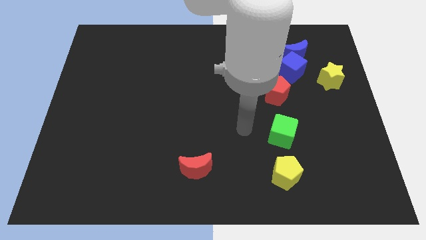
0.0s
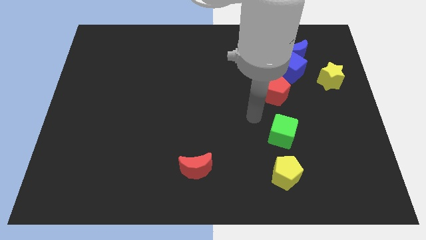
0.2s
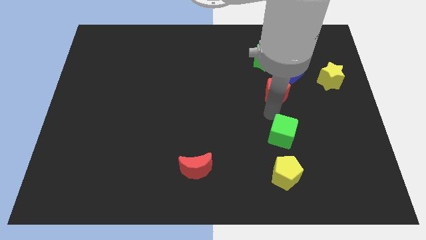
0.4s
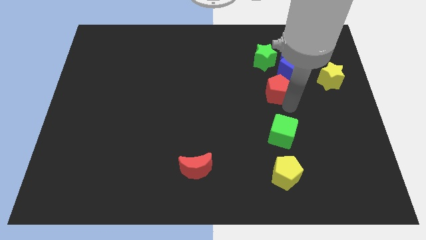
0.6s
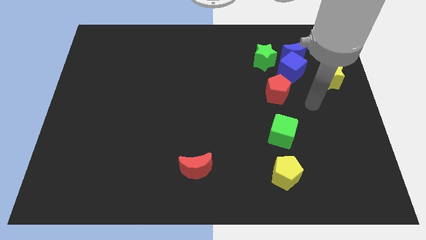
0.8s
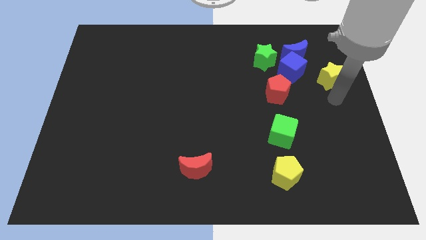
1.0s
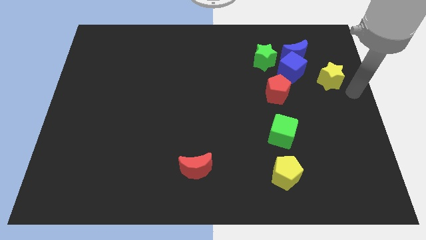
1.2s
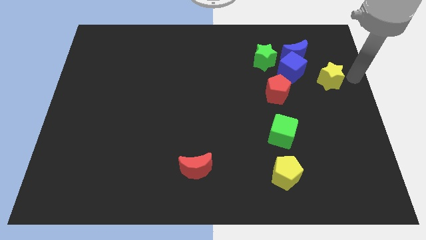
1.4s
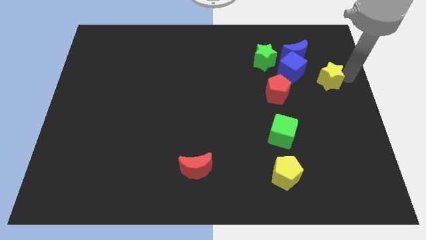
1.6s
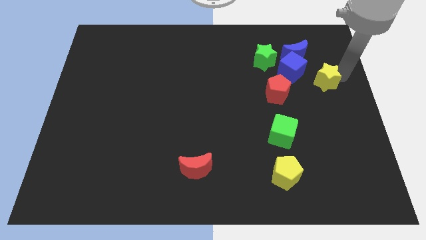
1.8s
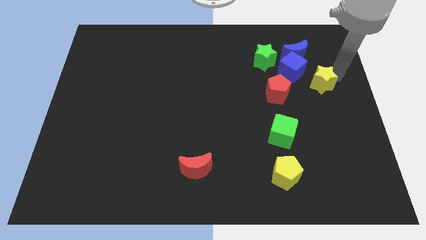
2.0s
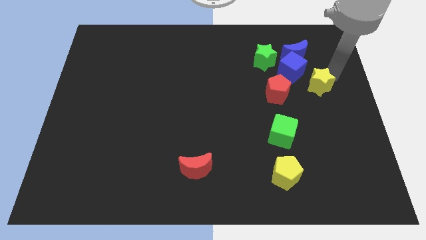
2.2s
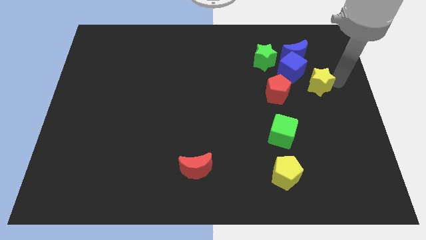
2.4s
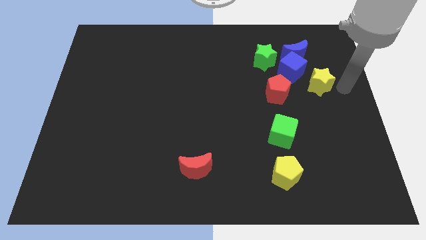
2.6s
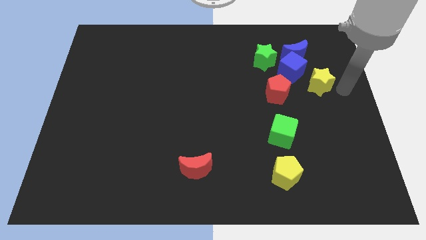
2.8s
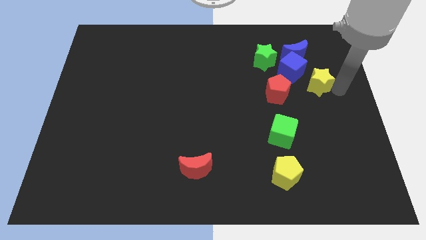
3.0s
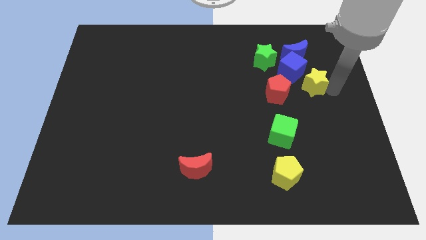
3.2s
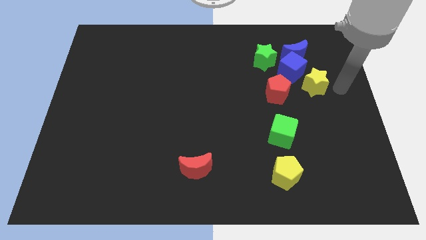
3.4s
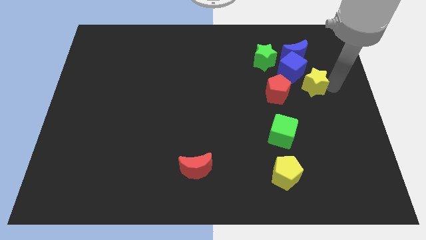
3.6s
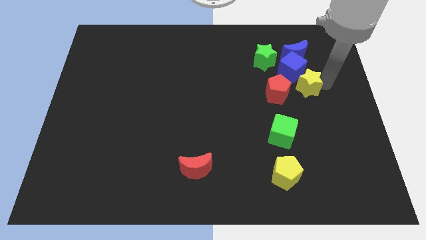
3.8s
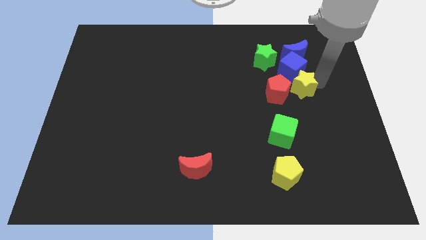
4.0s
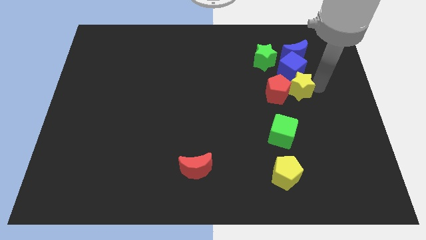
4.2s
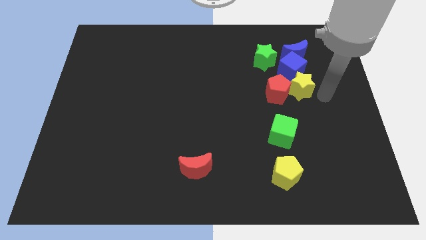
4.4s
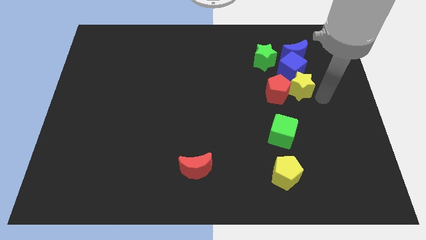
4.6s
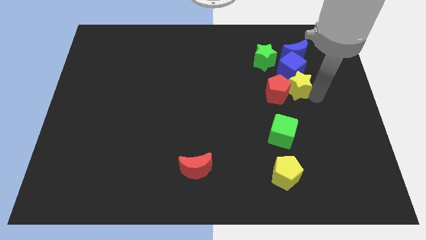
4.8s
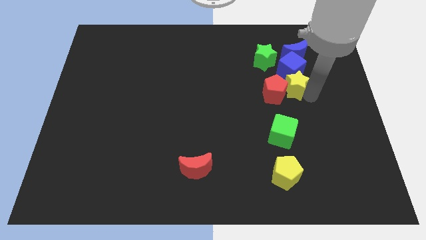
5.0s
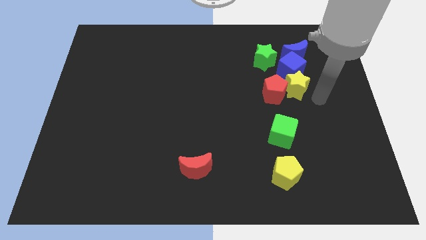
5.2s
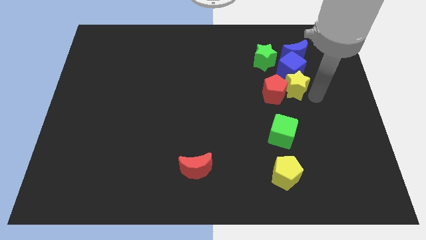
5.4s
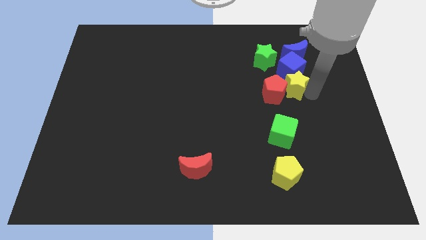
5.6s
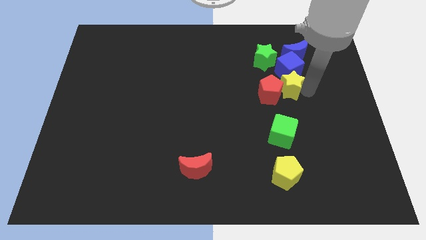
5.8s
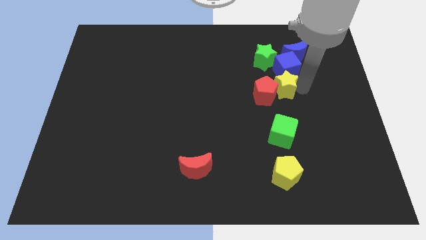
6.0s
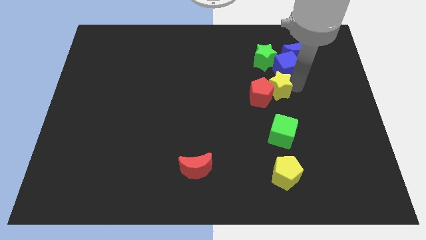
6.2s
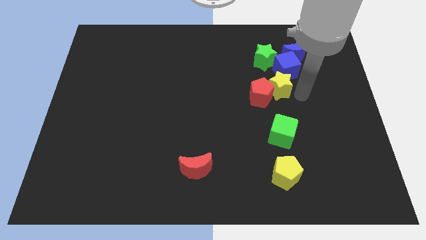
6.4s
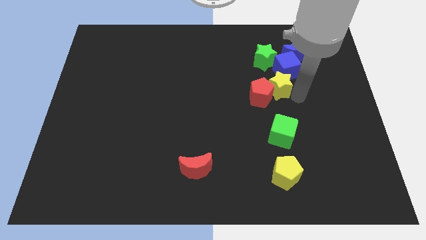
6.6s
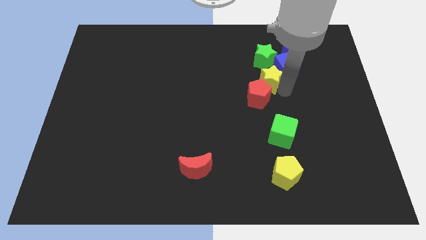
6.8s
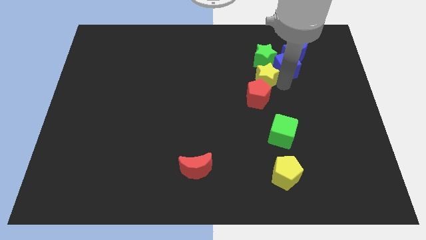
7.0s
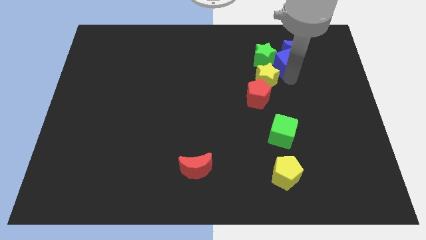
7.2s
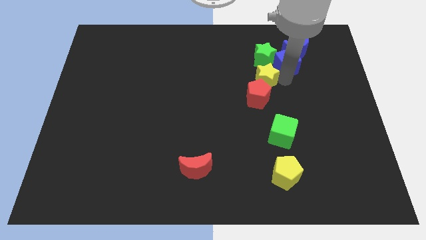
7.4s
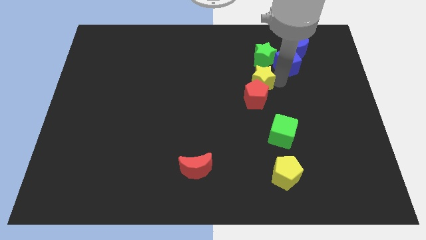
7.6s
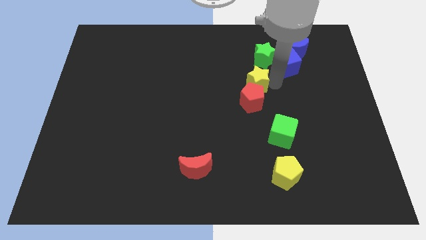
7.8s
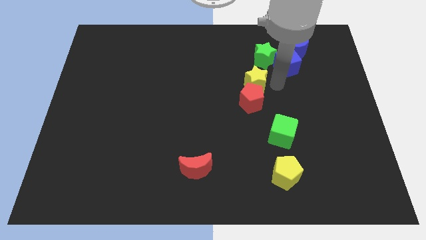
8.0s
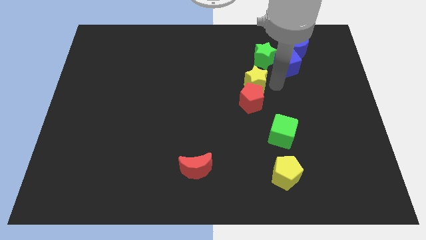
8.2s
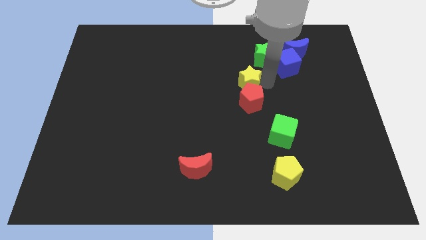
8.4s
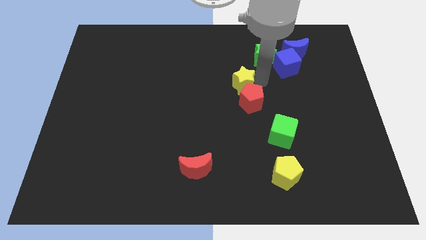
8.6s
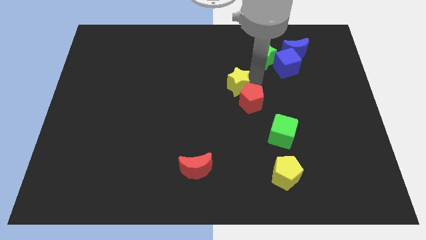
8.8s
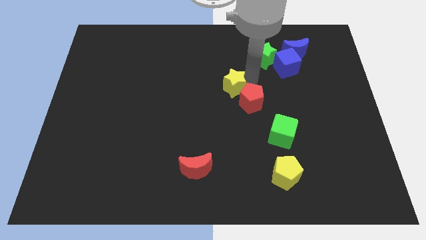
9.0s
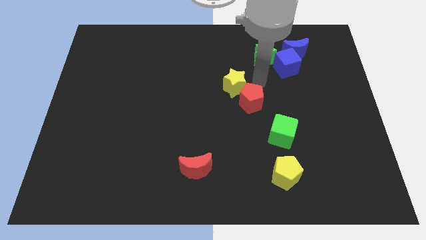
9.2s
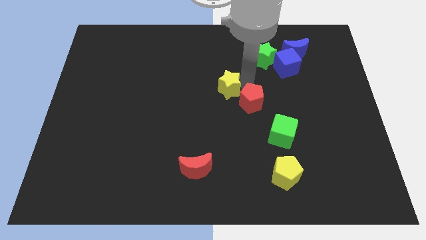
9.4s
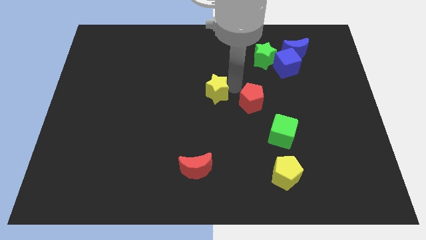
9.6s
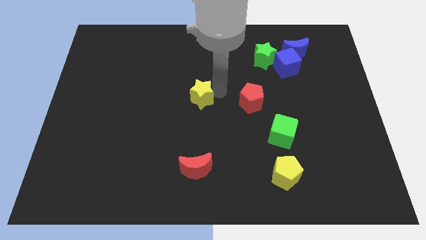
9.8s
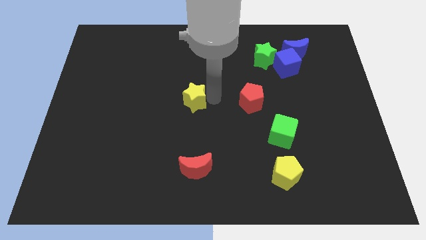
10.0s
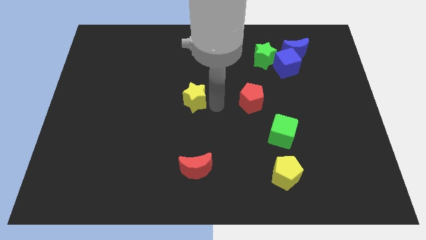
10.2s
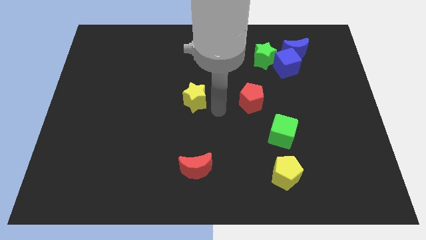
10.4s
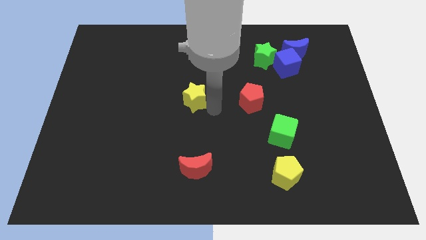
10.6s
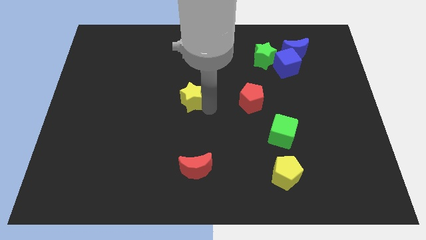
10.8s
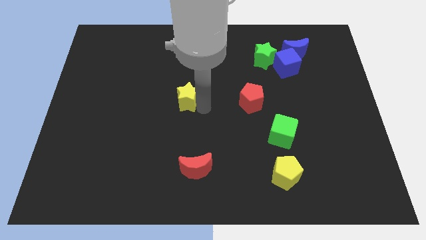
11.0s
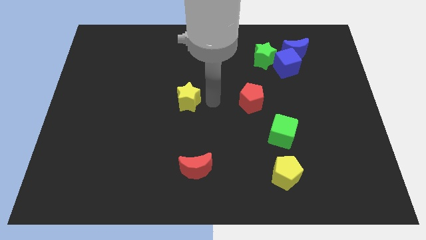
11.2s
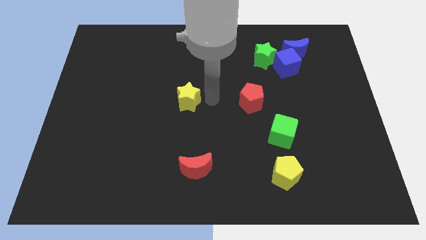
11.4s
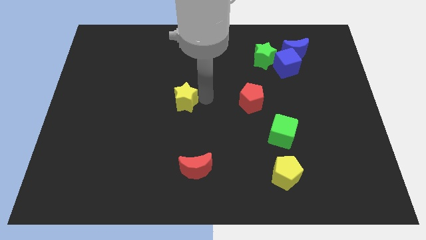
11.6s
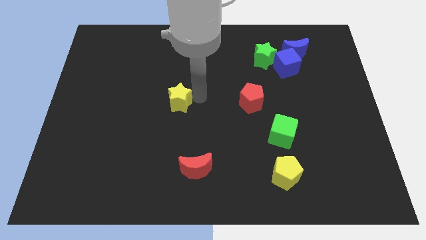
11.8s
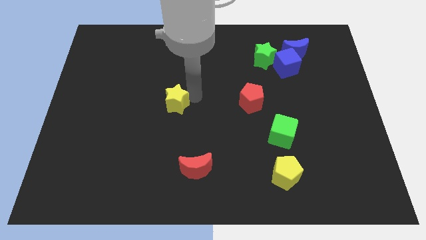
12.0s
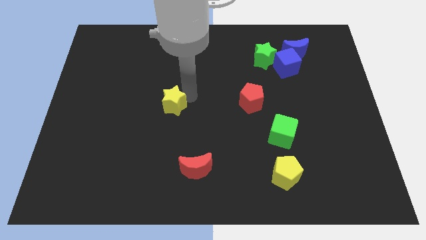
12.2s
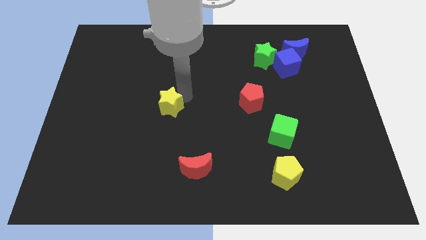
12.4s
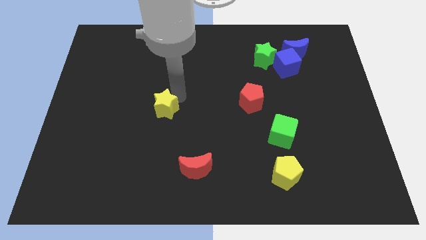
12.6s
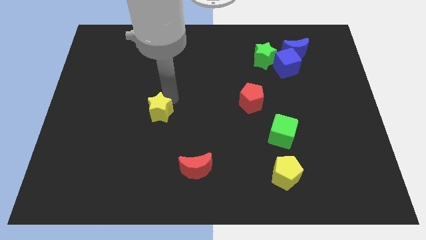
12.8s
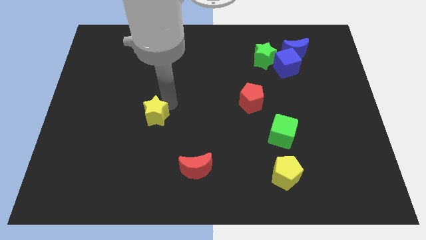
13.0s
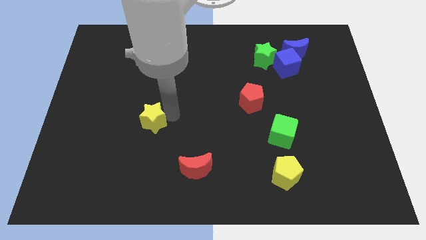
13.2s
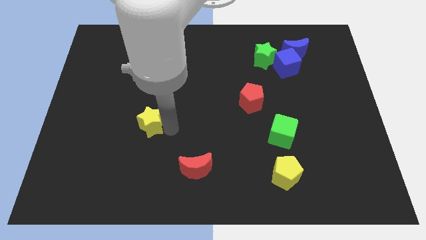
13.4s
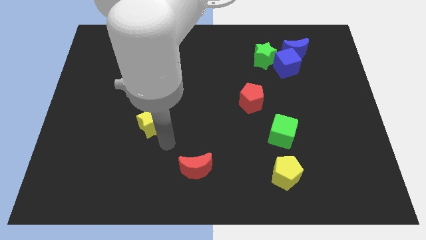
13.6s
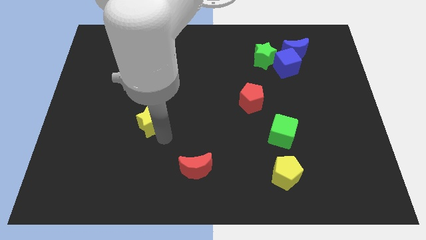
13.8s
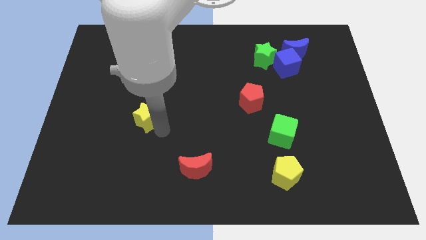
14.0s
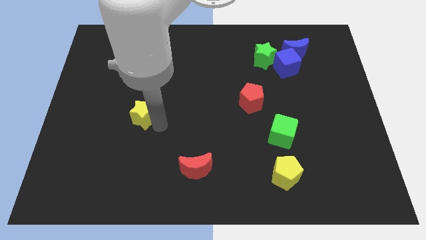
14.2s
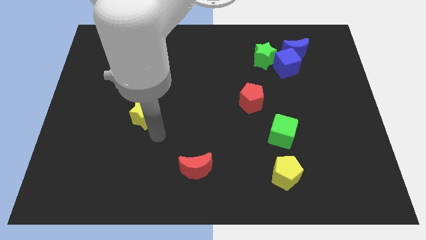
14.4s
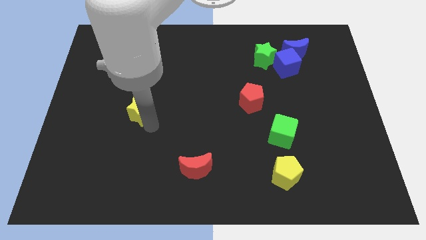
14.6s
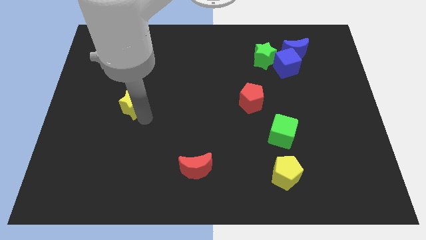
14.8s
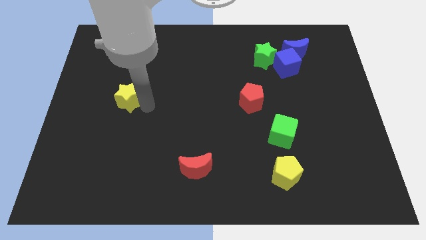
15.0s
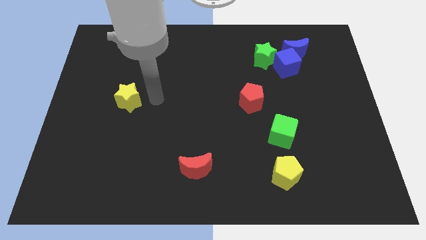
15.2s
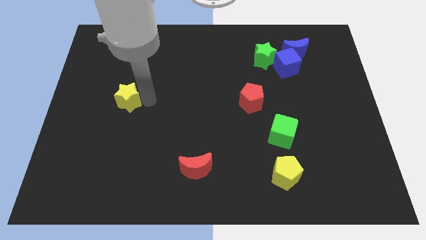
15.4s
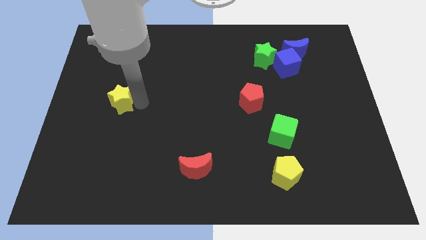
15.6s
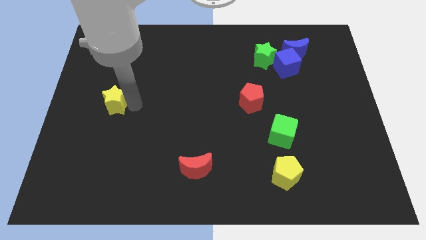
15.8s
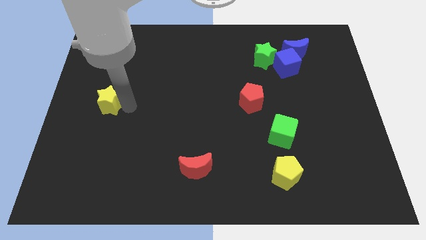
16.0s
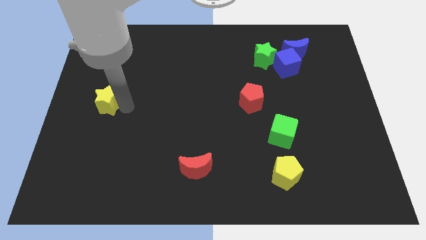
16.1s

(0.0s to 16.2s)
move the yellow star to the left side

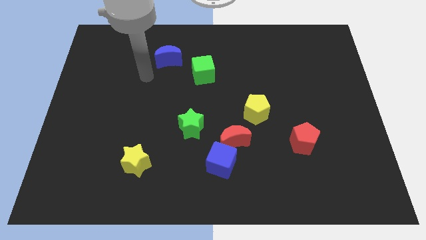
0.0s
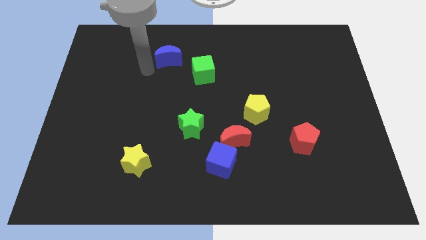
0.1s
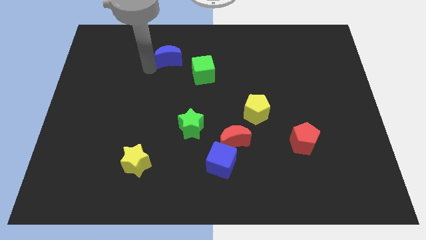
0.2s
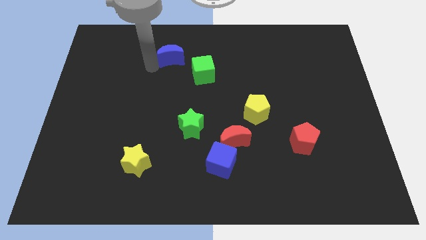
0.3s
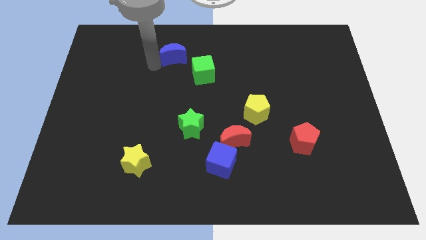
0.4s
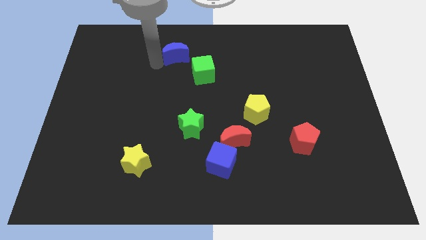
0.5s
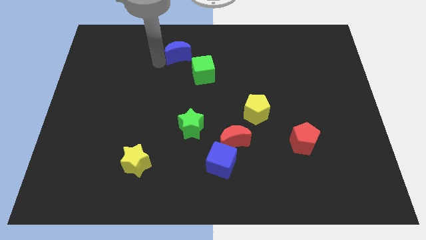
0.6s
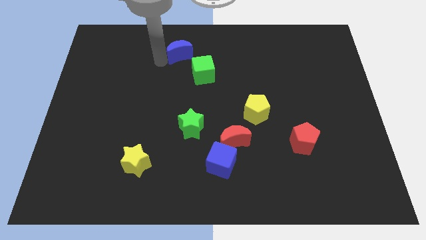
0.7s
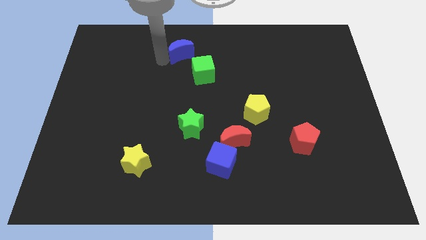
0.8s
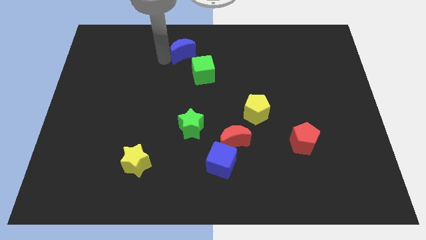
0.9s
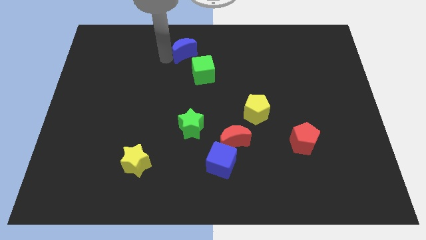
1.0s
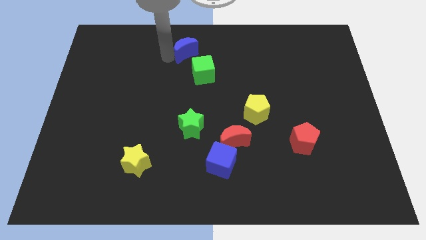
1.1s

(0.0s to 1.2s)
push the blue moon to the top side
